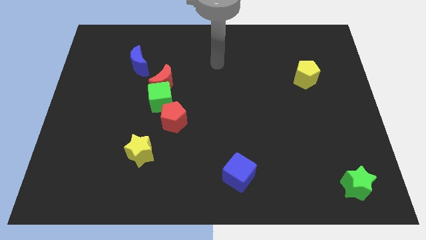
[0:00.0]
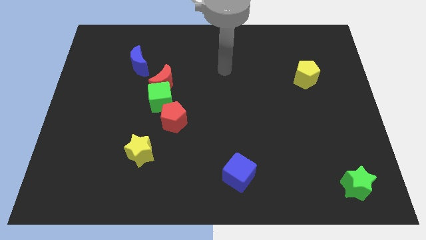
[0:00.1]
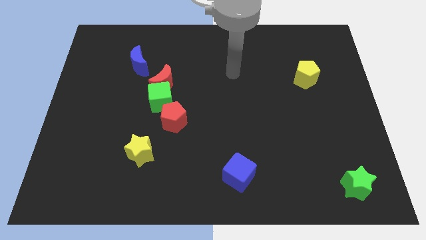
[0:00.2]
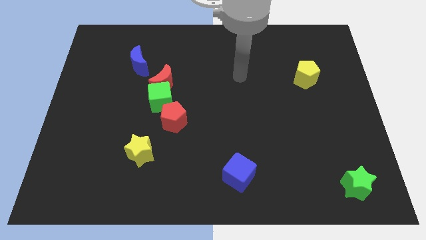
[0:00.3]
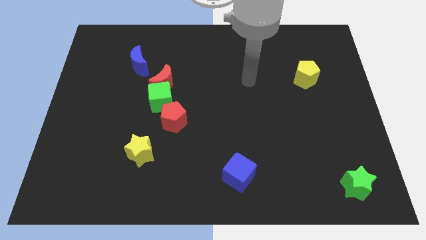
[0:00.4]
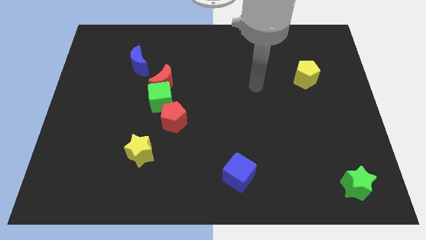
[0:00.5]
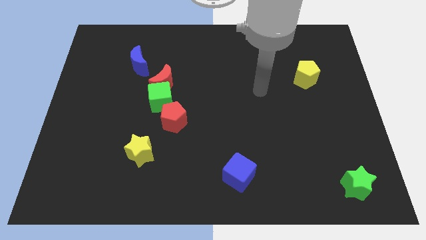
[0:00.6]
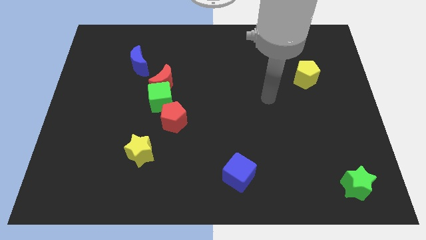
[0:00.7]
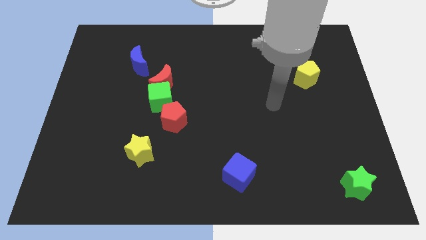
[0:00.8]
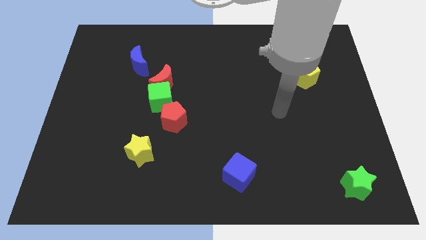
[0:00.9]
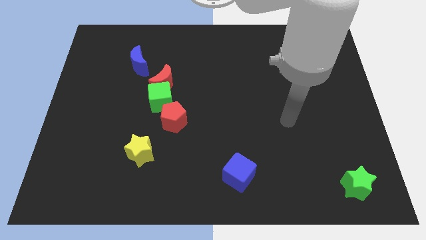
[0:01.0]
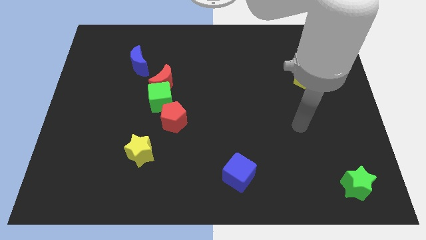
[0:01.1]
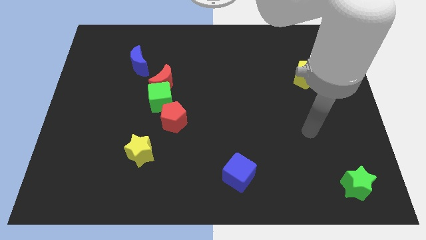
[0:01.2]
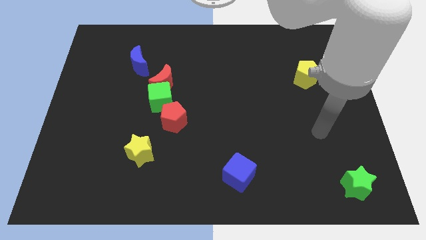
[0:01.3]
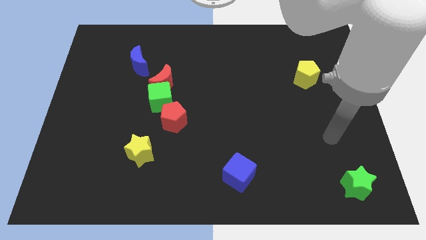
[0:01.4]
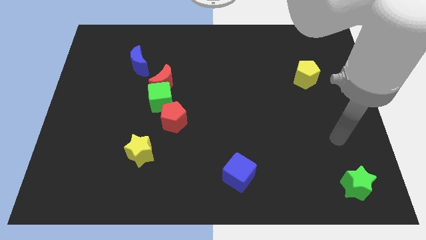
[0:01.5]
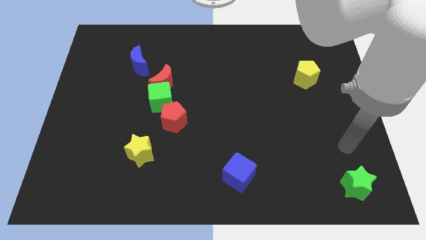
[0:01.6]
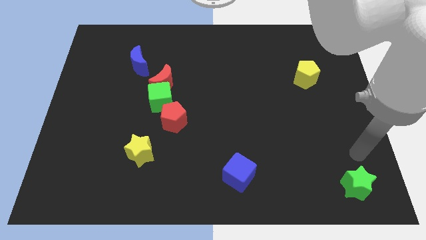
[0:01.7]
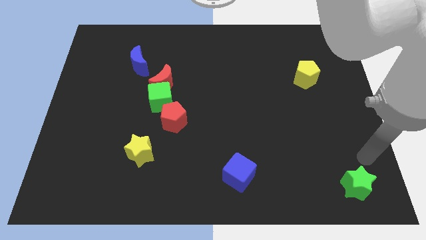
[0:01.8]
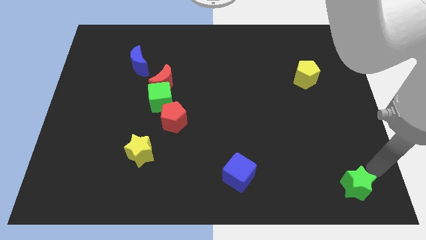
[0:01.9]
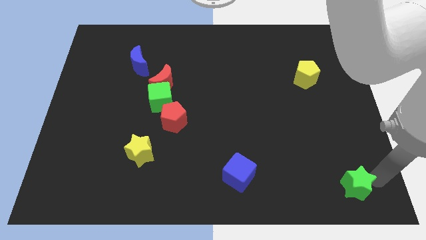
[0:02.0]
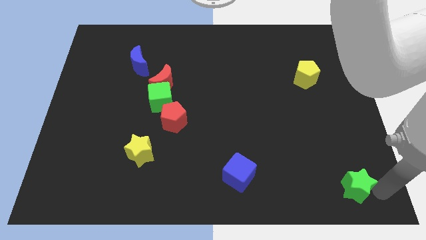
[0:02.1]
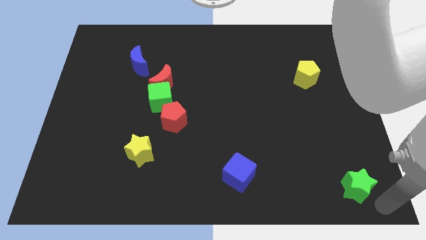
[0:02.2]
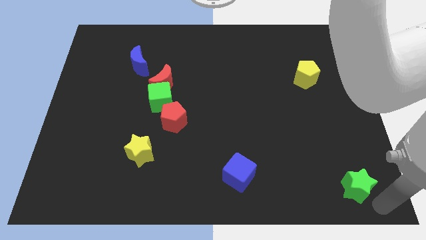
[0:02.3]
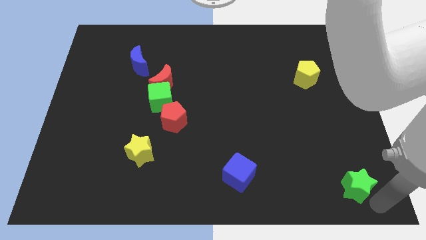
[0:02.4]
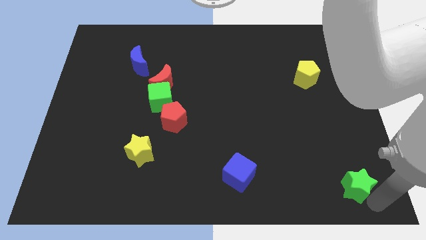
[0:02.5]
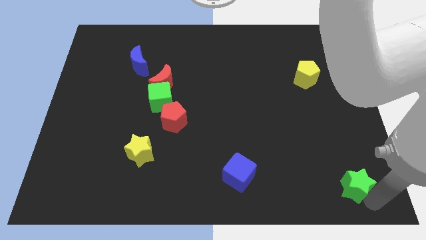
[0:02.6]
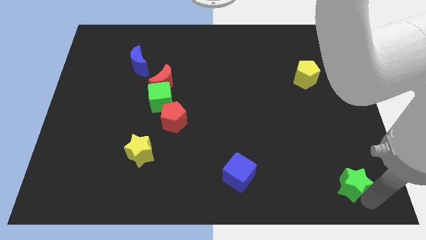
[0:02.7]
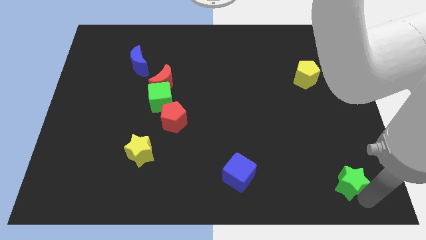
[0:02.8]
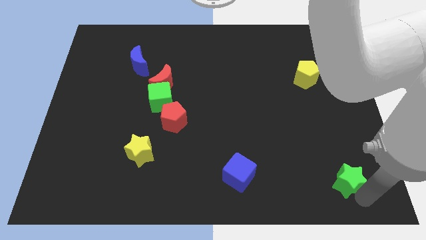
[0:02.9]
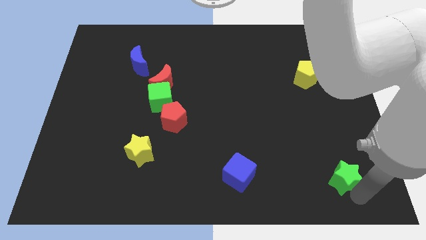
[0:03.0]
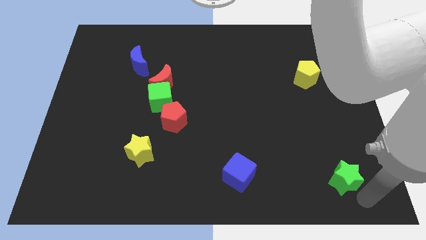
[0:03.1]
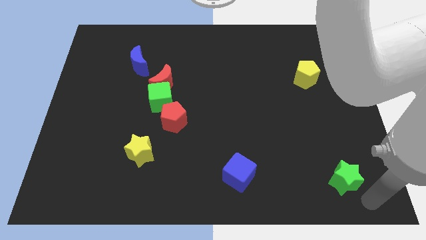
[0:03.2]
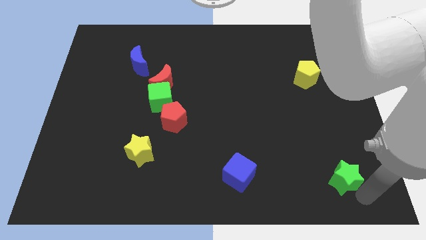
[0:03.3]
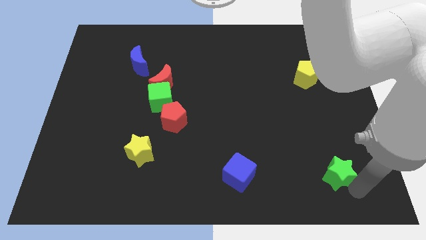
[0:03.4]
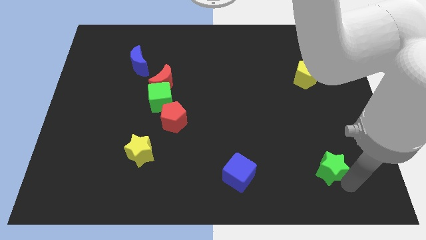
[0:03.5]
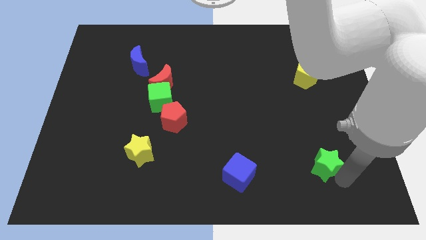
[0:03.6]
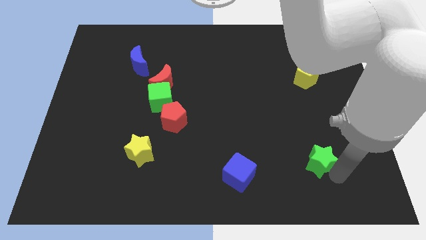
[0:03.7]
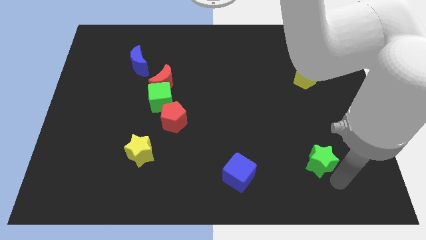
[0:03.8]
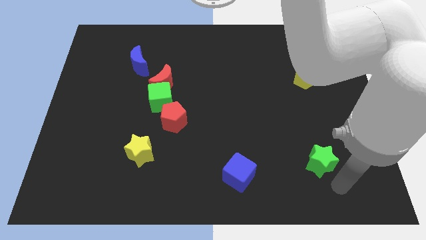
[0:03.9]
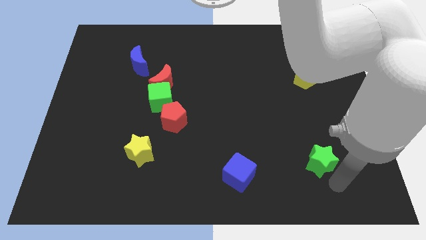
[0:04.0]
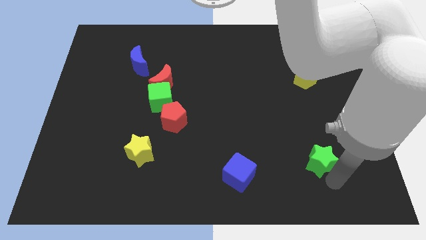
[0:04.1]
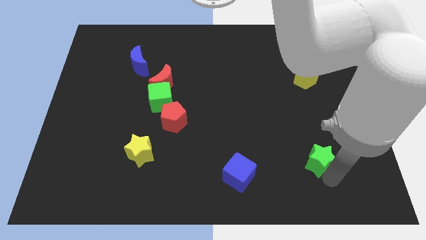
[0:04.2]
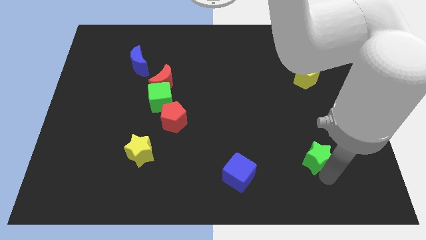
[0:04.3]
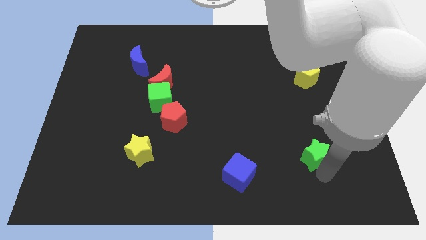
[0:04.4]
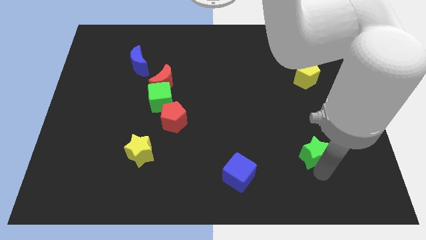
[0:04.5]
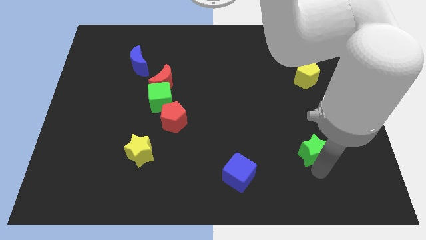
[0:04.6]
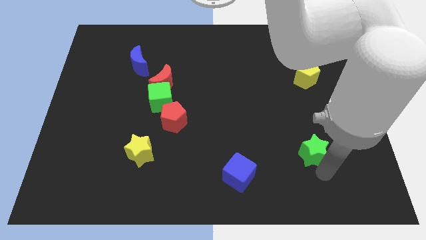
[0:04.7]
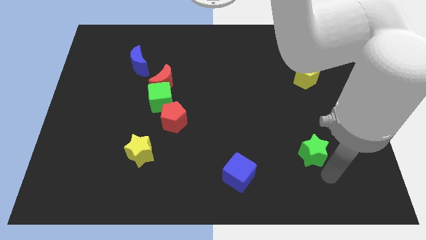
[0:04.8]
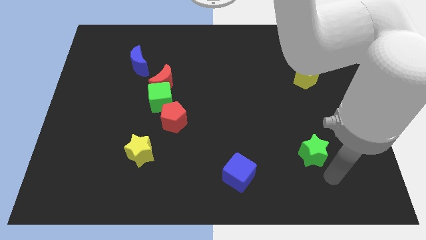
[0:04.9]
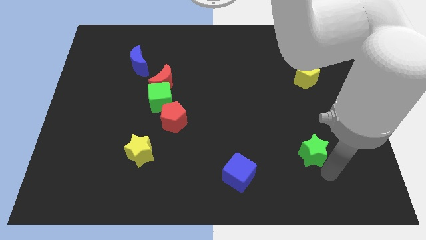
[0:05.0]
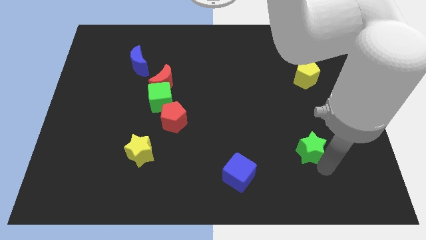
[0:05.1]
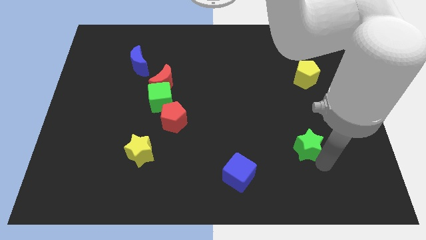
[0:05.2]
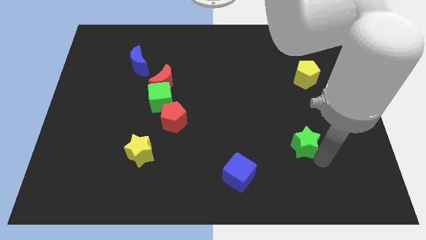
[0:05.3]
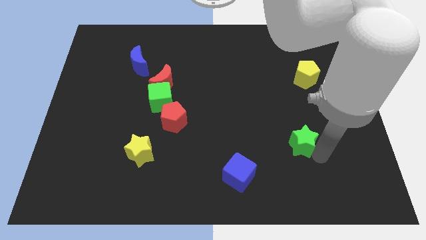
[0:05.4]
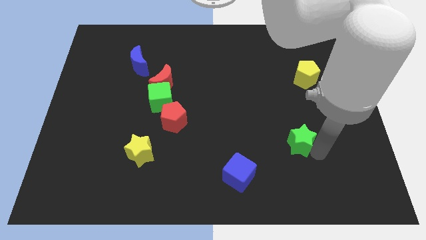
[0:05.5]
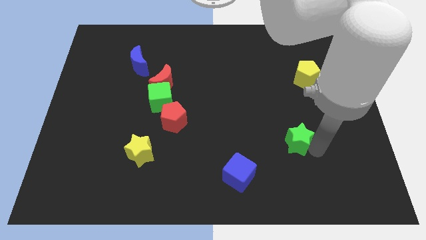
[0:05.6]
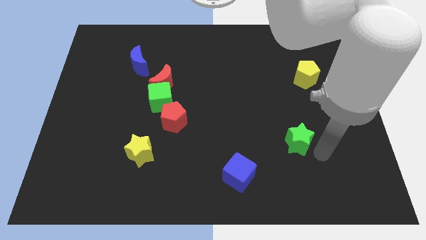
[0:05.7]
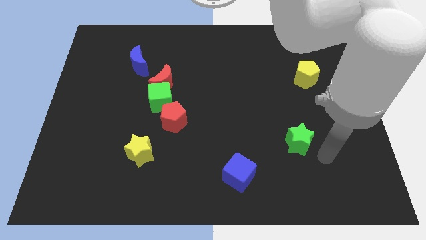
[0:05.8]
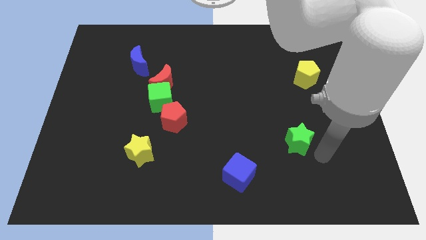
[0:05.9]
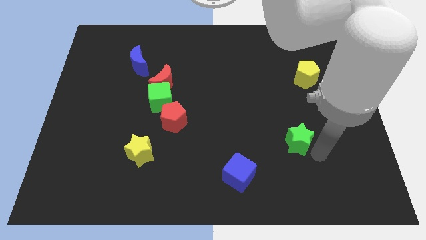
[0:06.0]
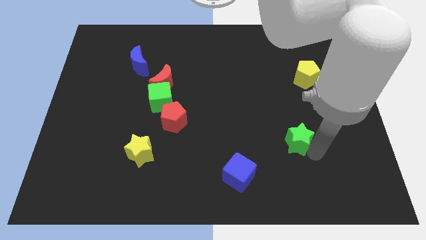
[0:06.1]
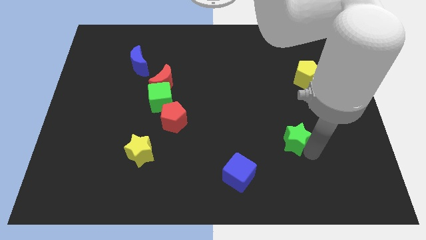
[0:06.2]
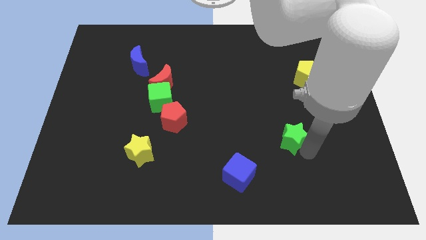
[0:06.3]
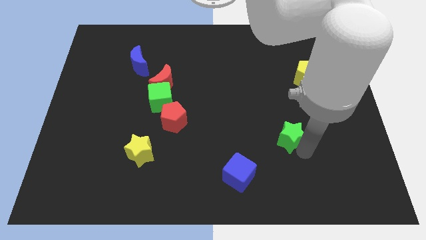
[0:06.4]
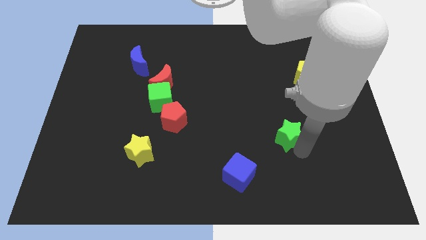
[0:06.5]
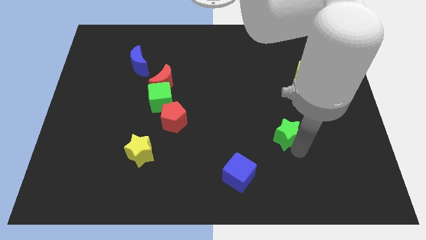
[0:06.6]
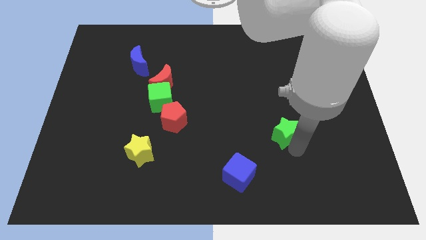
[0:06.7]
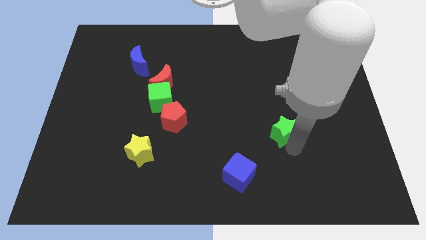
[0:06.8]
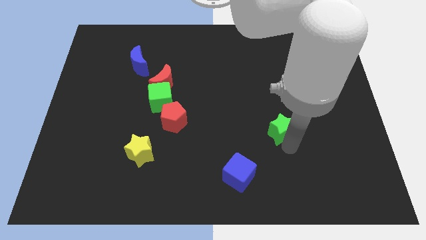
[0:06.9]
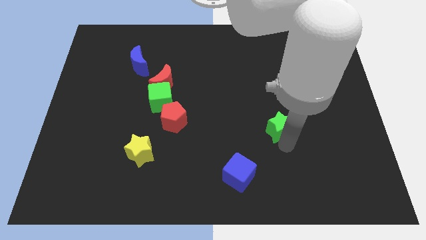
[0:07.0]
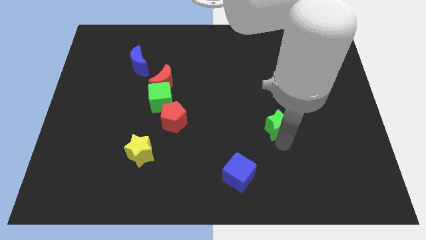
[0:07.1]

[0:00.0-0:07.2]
slide the green star diagonally up and left

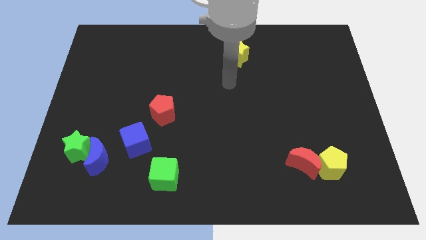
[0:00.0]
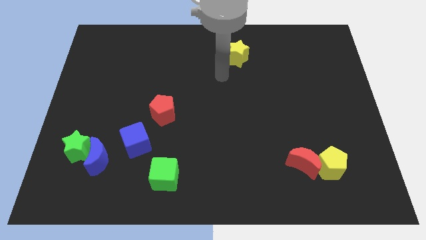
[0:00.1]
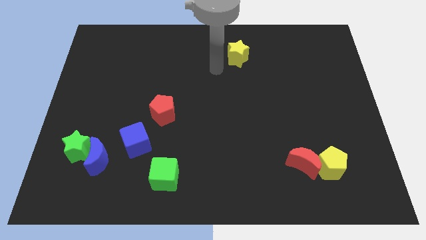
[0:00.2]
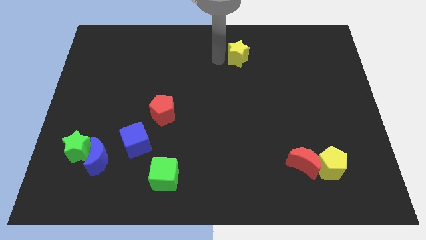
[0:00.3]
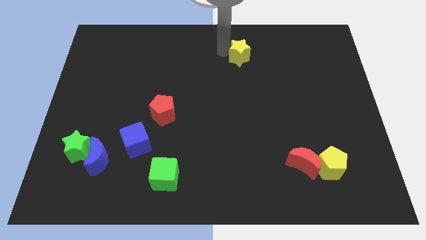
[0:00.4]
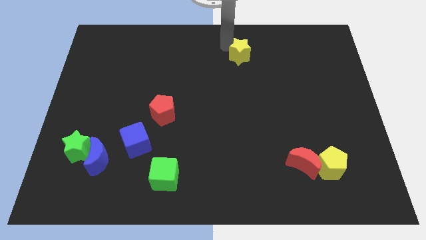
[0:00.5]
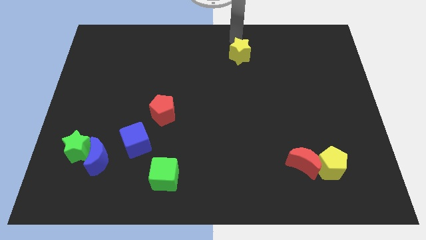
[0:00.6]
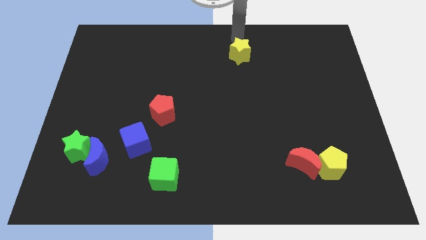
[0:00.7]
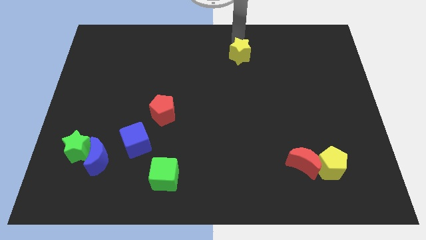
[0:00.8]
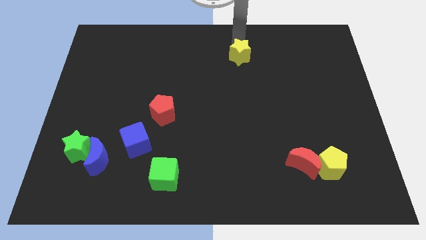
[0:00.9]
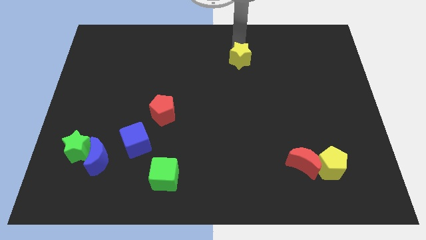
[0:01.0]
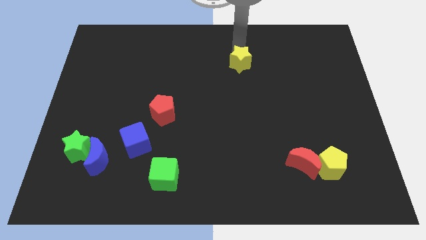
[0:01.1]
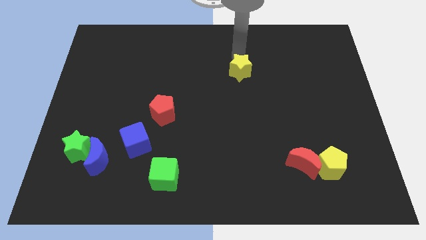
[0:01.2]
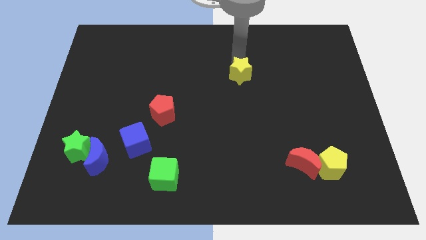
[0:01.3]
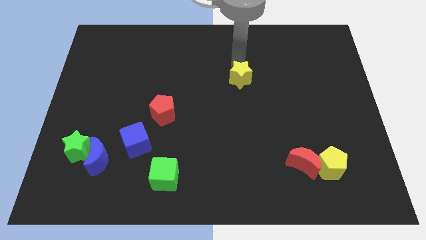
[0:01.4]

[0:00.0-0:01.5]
push the yellow star down somewhat
